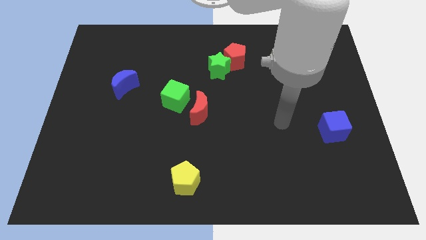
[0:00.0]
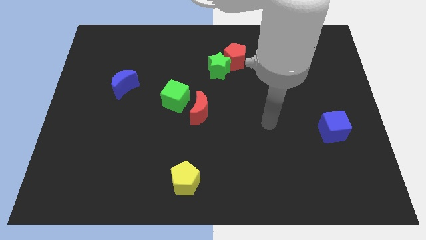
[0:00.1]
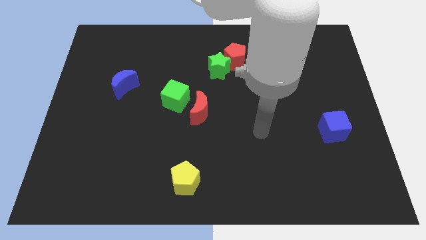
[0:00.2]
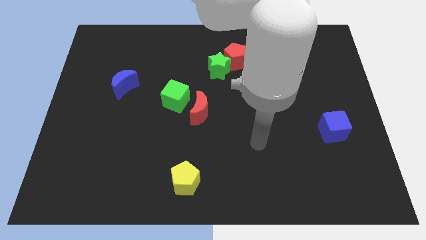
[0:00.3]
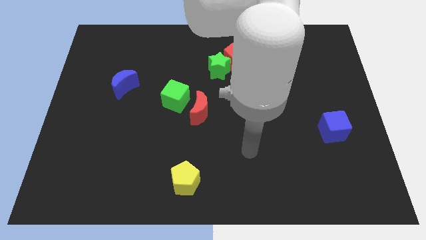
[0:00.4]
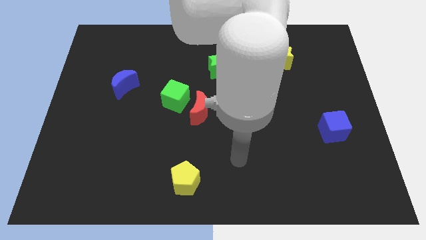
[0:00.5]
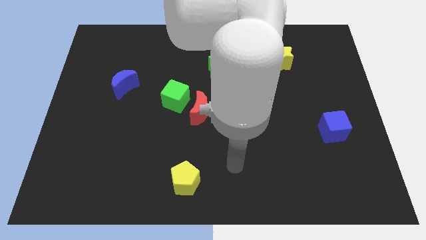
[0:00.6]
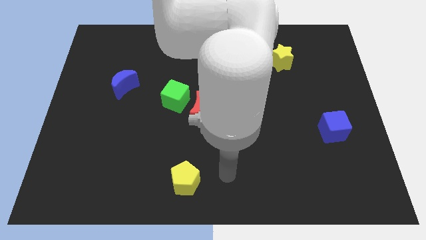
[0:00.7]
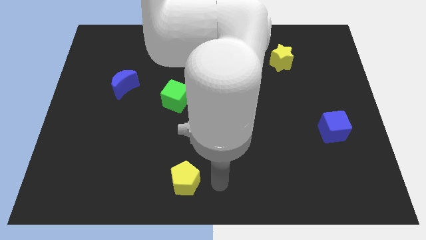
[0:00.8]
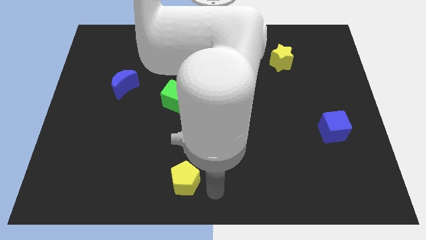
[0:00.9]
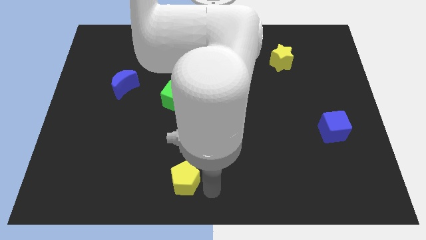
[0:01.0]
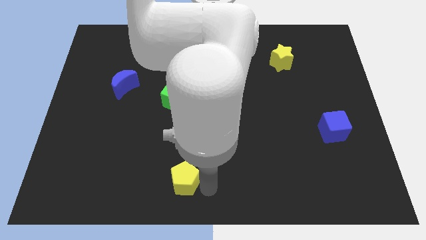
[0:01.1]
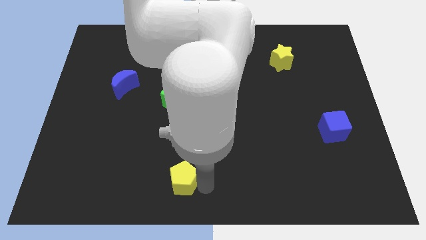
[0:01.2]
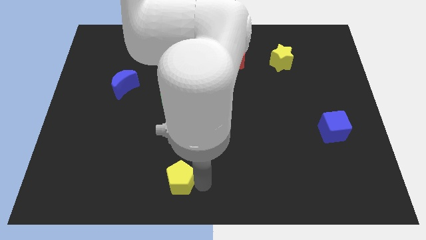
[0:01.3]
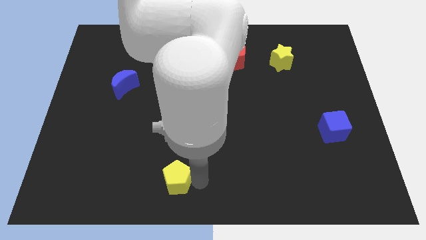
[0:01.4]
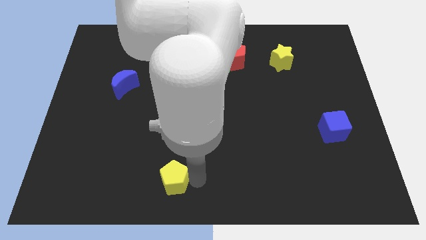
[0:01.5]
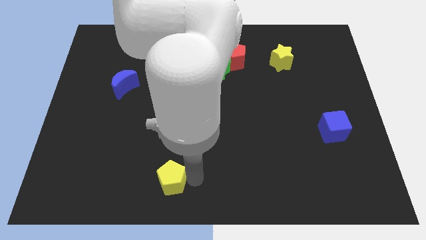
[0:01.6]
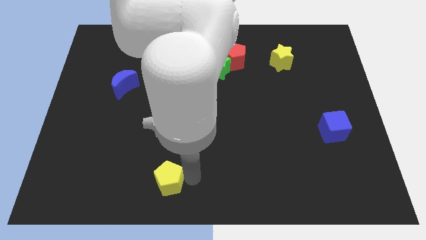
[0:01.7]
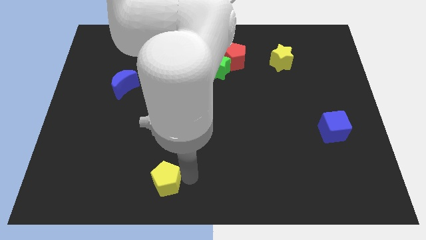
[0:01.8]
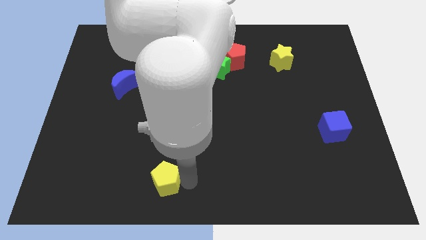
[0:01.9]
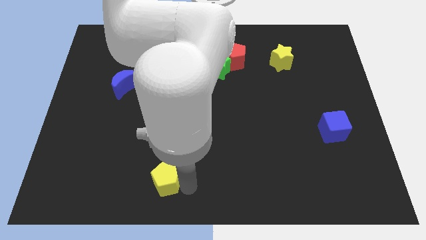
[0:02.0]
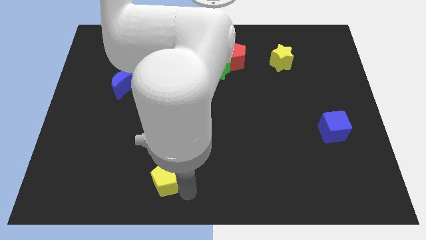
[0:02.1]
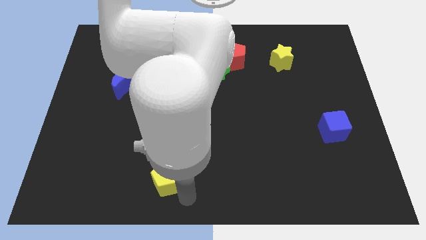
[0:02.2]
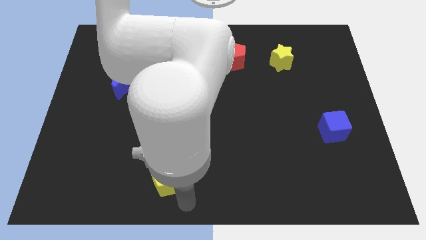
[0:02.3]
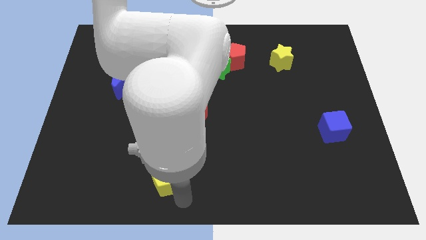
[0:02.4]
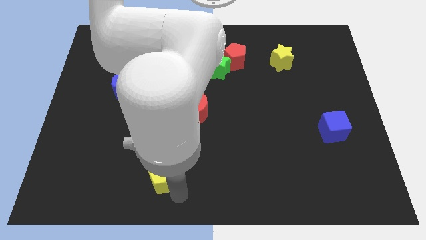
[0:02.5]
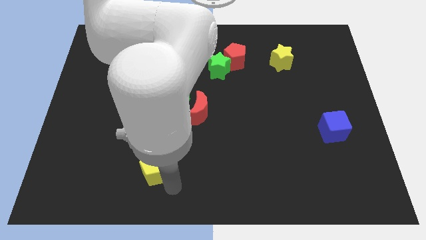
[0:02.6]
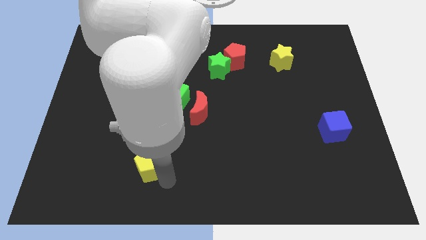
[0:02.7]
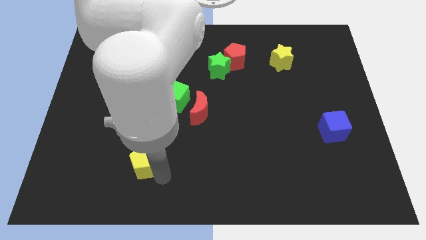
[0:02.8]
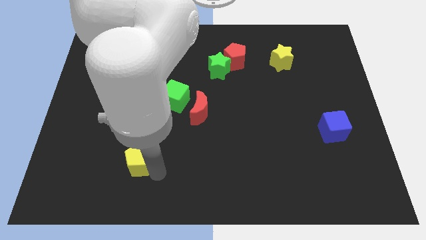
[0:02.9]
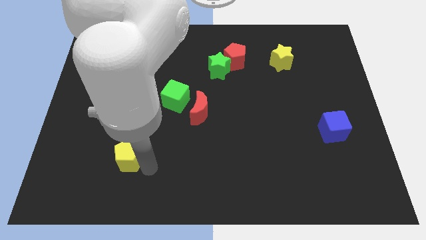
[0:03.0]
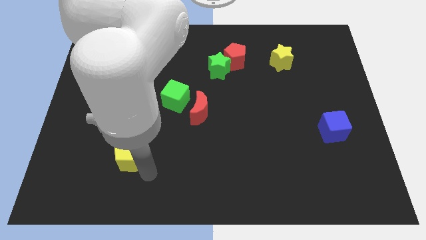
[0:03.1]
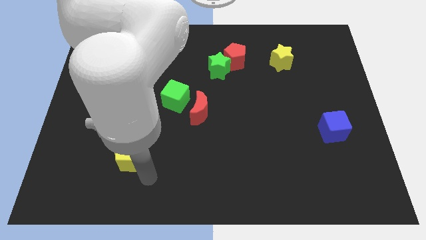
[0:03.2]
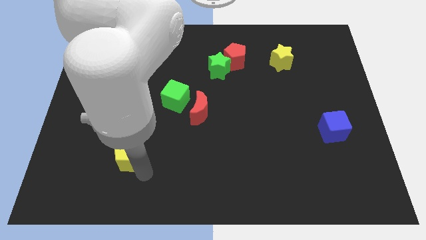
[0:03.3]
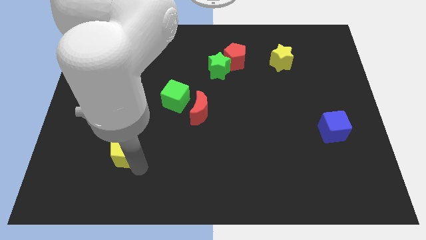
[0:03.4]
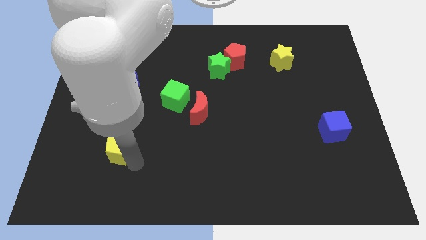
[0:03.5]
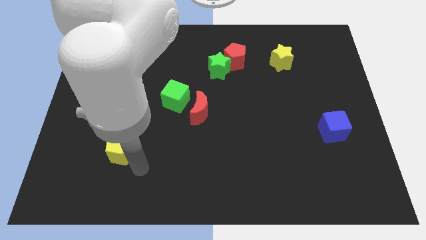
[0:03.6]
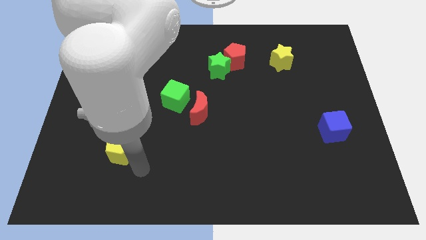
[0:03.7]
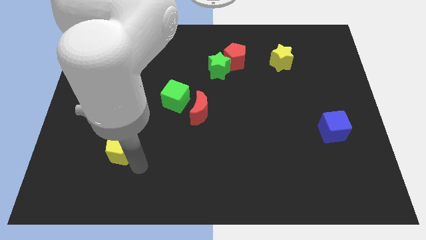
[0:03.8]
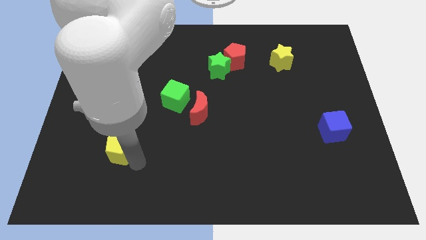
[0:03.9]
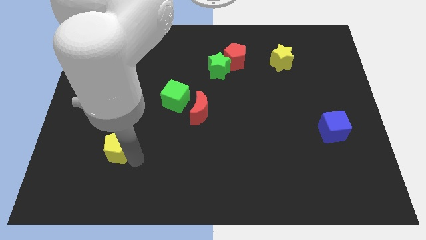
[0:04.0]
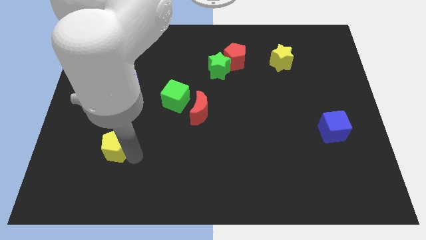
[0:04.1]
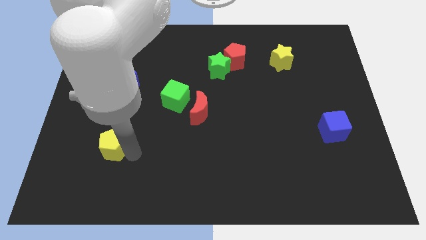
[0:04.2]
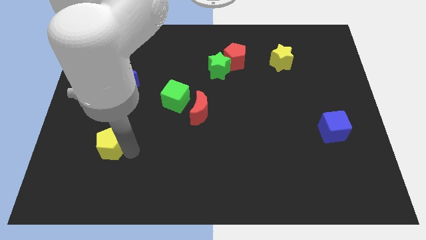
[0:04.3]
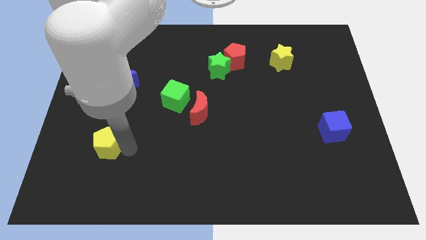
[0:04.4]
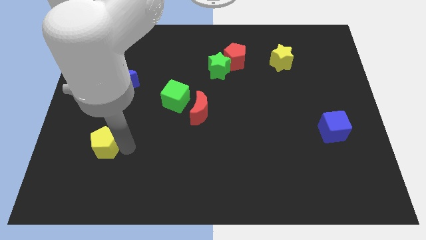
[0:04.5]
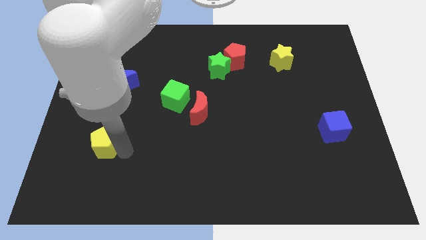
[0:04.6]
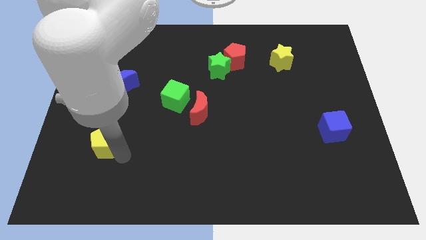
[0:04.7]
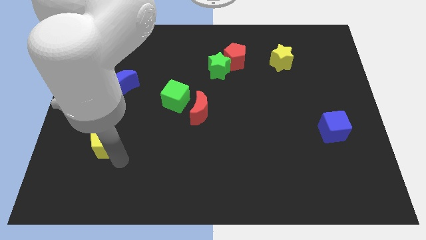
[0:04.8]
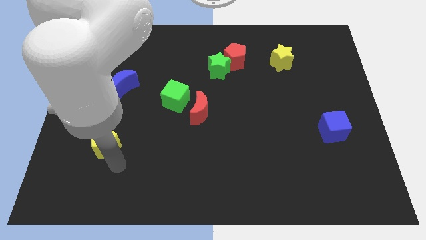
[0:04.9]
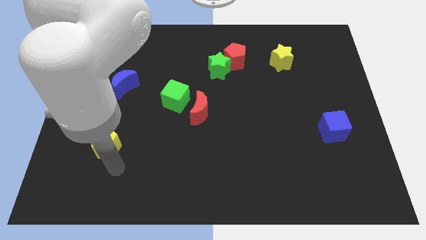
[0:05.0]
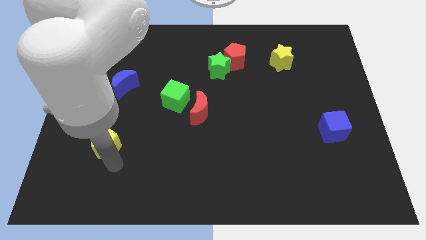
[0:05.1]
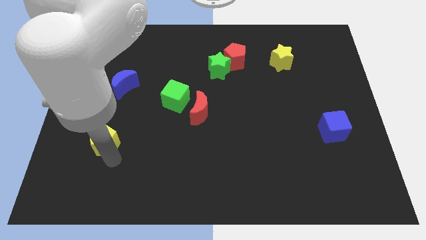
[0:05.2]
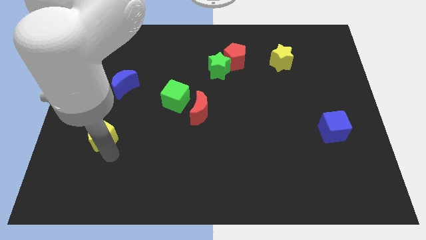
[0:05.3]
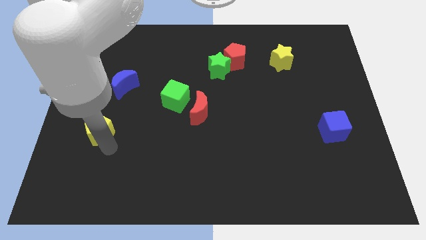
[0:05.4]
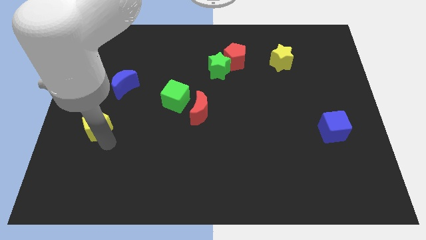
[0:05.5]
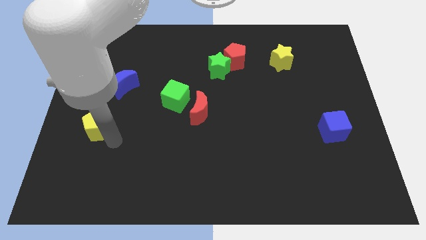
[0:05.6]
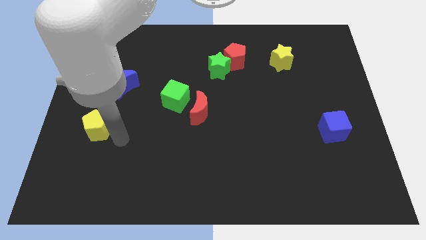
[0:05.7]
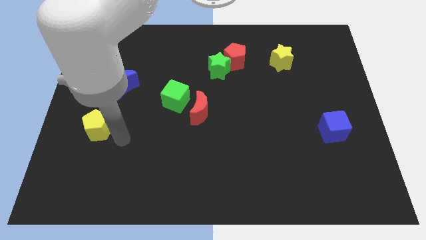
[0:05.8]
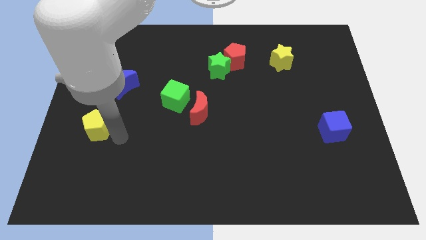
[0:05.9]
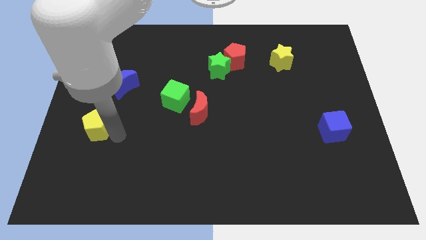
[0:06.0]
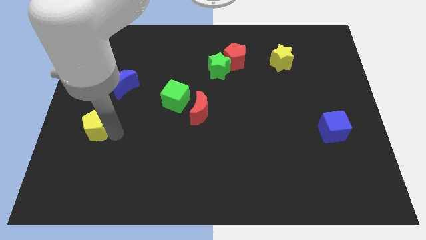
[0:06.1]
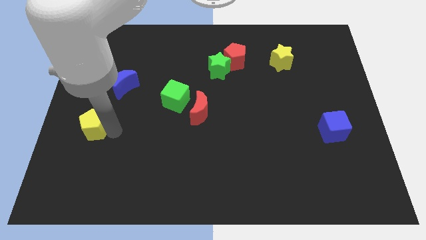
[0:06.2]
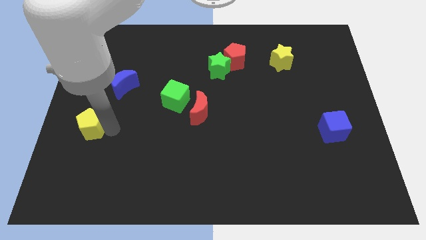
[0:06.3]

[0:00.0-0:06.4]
move the yellow pentagon to the center left

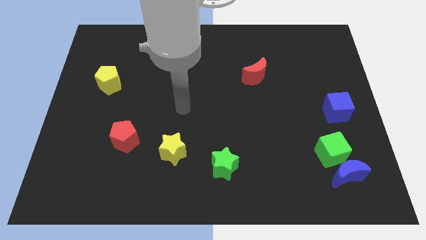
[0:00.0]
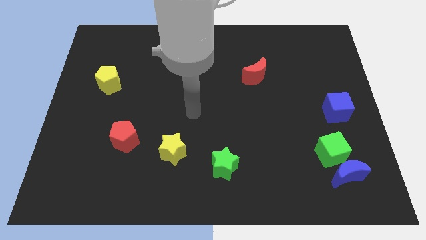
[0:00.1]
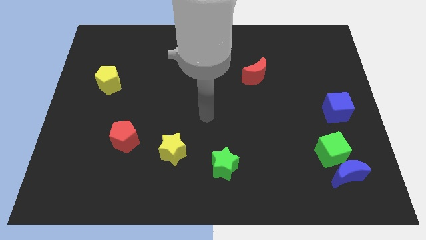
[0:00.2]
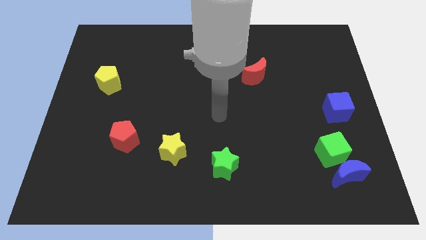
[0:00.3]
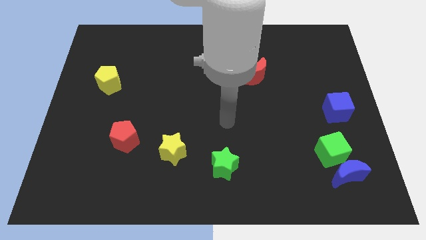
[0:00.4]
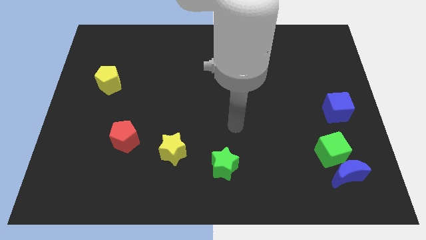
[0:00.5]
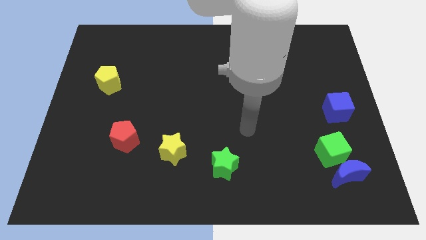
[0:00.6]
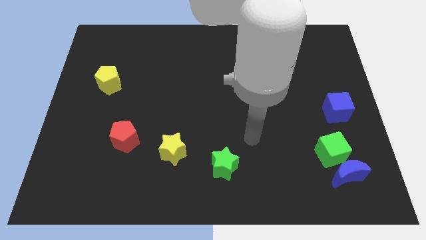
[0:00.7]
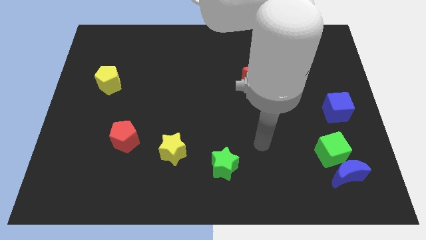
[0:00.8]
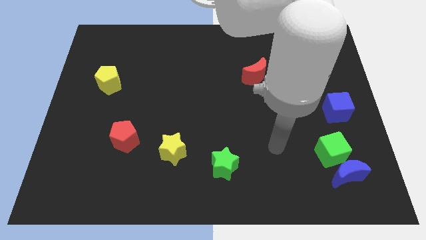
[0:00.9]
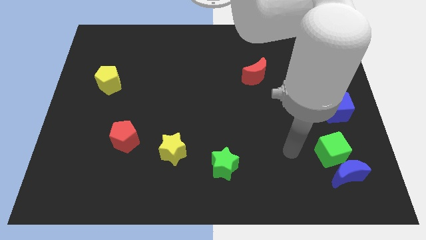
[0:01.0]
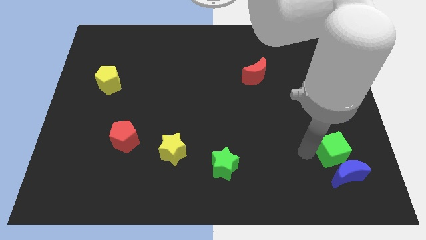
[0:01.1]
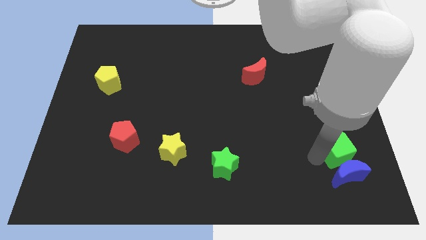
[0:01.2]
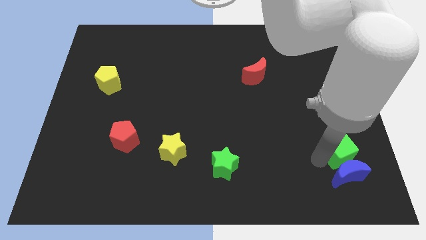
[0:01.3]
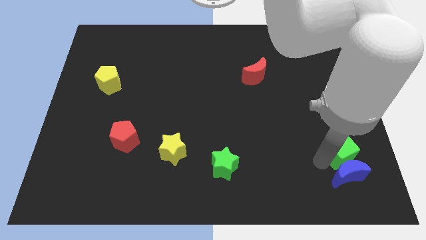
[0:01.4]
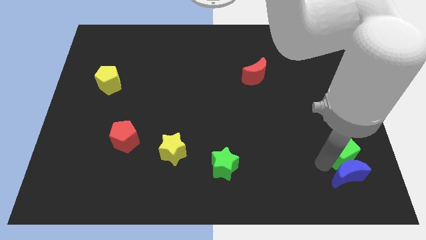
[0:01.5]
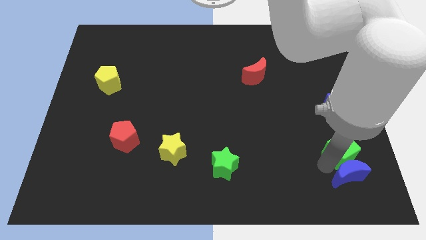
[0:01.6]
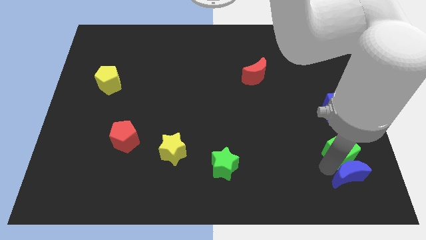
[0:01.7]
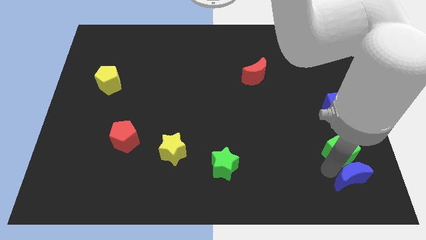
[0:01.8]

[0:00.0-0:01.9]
put the blue moon to the bottom right of the board
